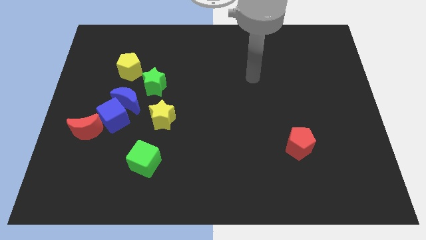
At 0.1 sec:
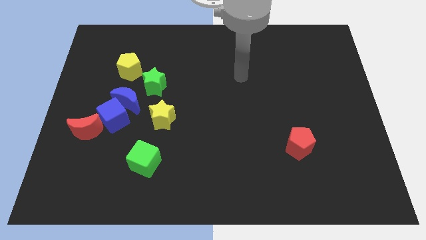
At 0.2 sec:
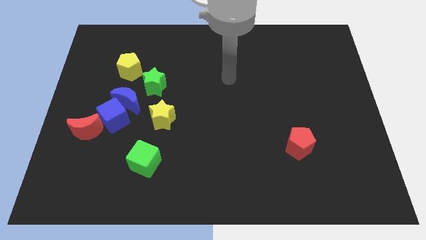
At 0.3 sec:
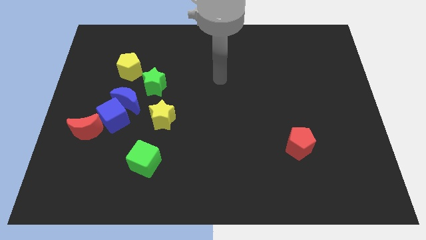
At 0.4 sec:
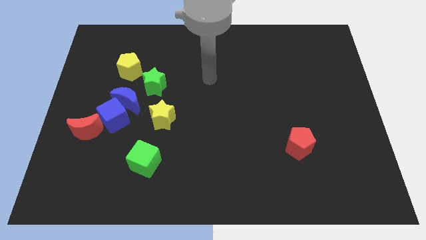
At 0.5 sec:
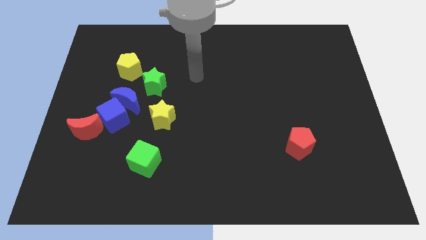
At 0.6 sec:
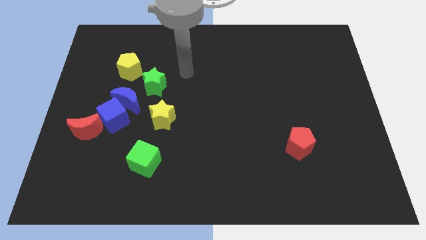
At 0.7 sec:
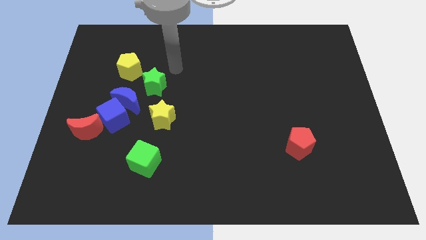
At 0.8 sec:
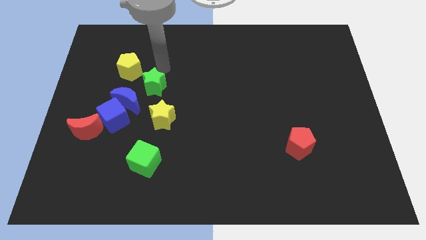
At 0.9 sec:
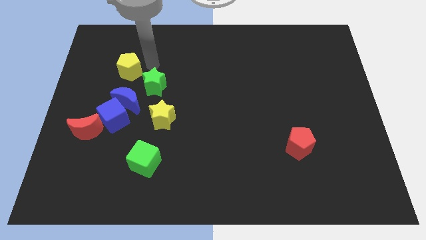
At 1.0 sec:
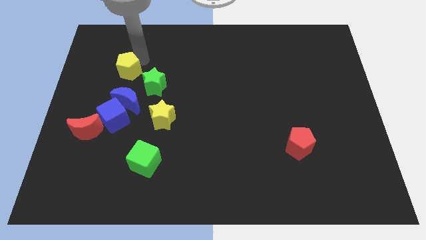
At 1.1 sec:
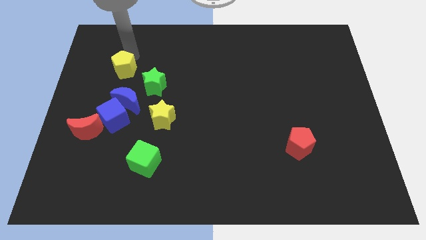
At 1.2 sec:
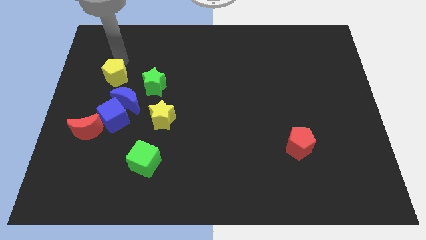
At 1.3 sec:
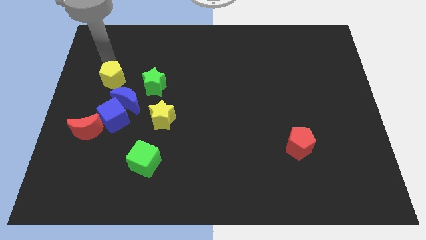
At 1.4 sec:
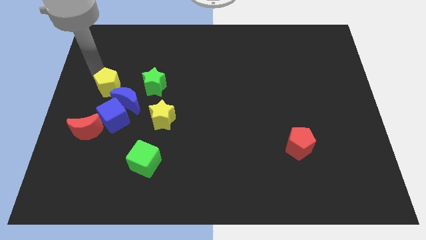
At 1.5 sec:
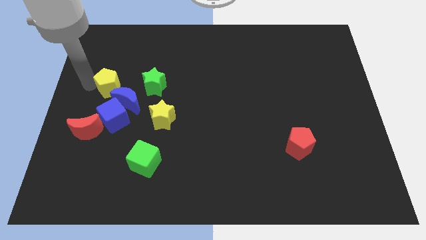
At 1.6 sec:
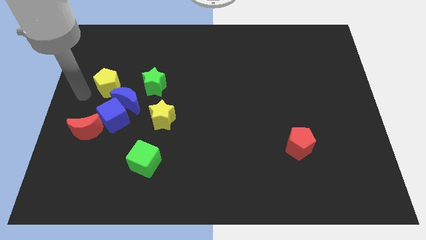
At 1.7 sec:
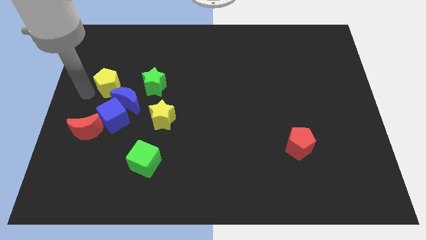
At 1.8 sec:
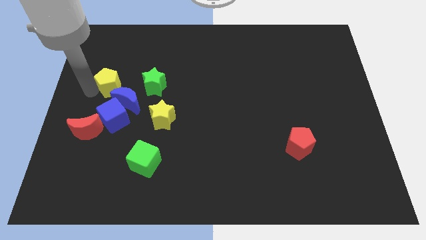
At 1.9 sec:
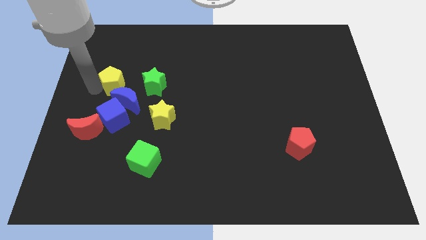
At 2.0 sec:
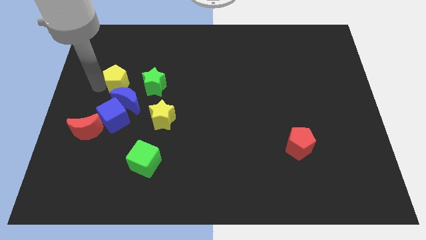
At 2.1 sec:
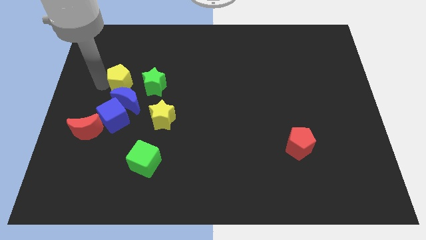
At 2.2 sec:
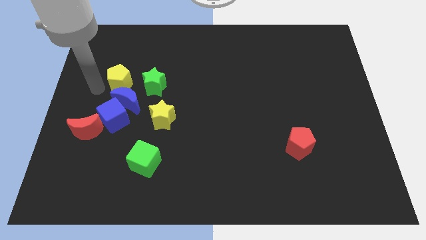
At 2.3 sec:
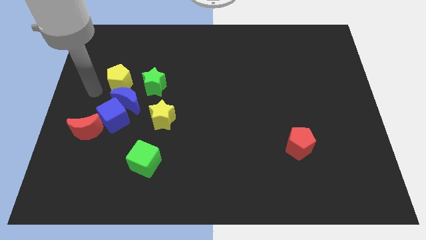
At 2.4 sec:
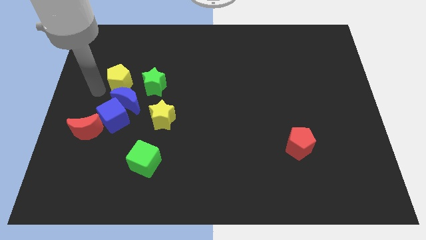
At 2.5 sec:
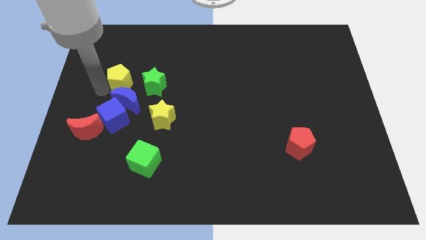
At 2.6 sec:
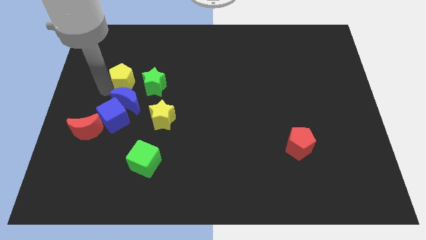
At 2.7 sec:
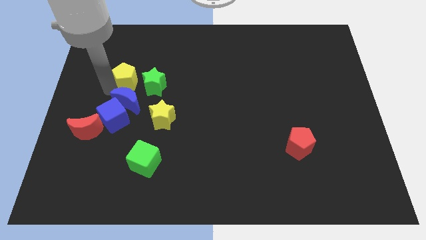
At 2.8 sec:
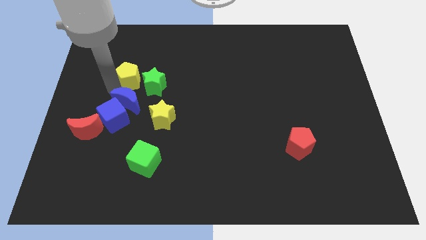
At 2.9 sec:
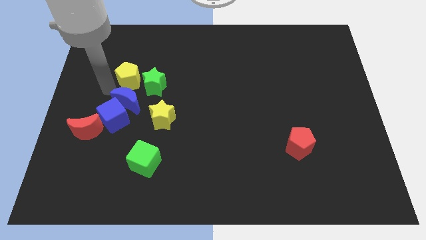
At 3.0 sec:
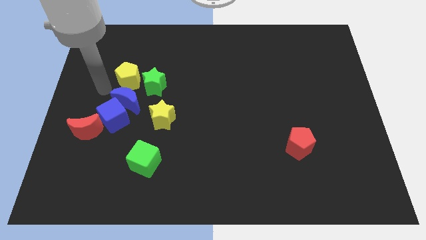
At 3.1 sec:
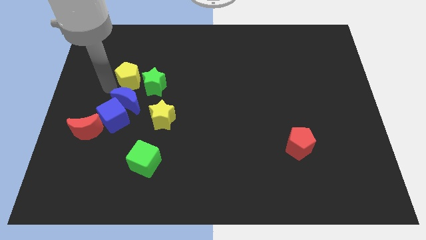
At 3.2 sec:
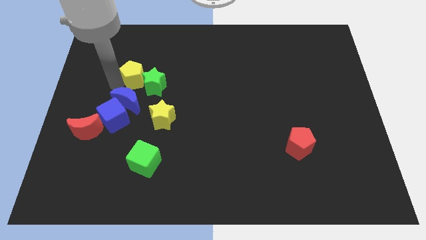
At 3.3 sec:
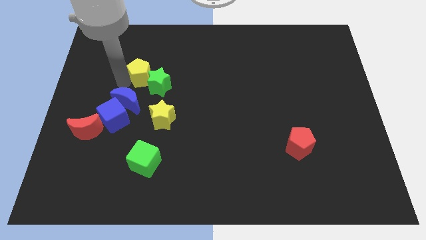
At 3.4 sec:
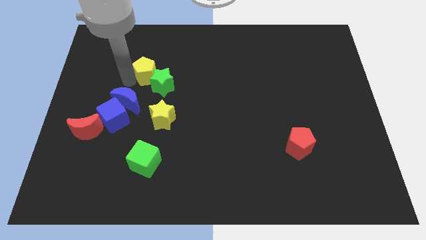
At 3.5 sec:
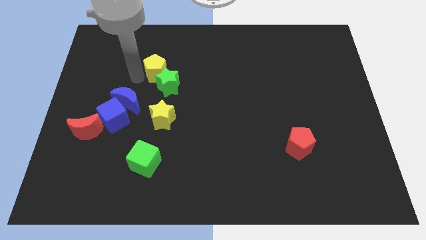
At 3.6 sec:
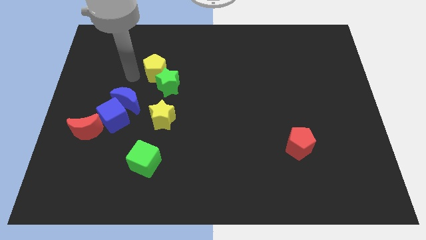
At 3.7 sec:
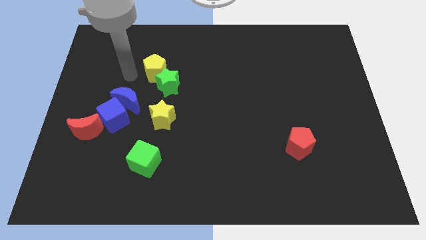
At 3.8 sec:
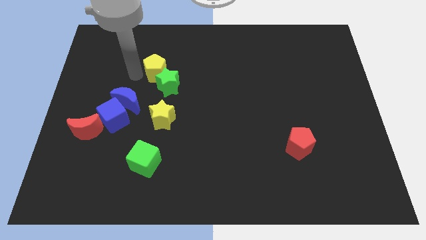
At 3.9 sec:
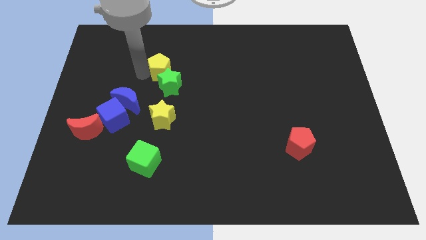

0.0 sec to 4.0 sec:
slide the yellow pentagon right somewhat

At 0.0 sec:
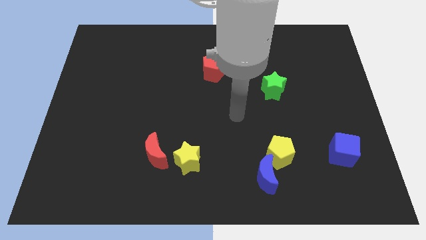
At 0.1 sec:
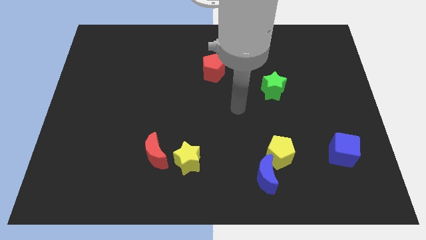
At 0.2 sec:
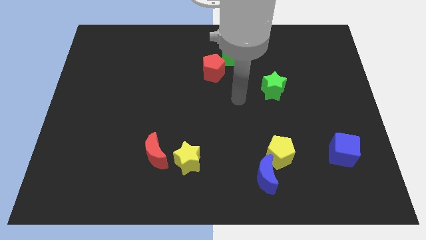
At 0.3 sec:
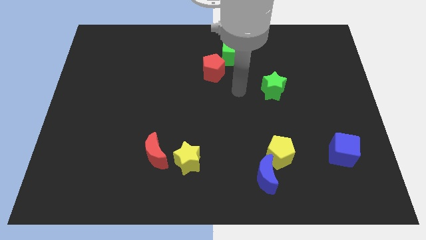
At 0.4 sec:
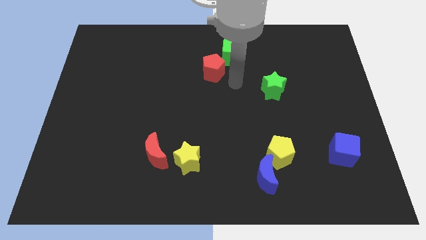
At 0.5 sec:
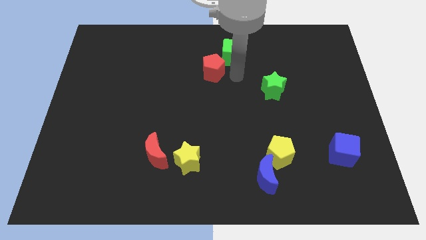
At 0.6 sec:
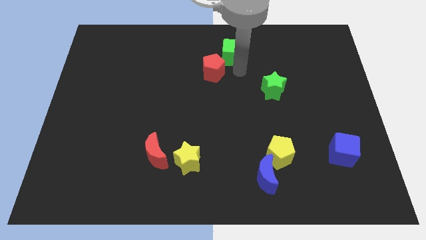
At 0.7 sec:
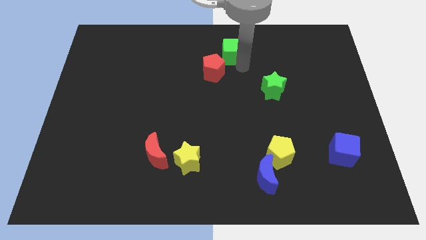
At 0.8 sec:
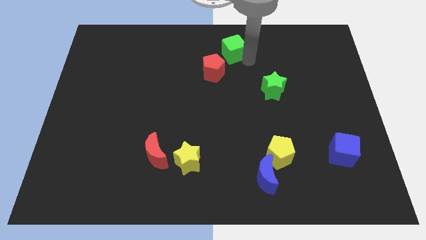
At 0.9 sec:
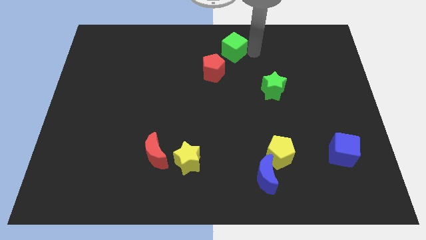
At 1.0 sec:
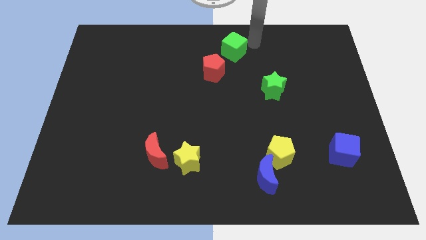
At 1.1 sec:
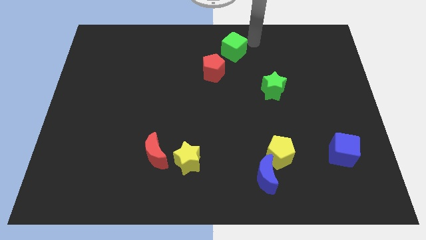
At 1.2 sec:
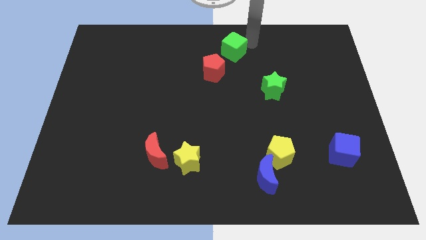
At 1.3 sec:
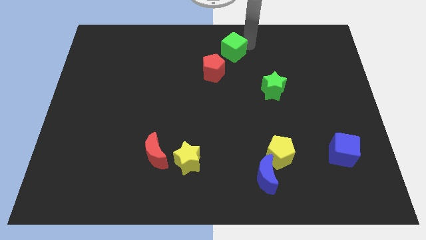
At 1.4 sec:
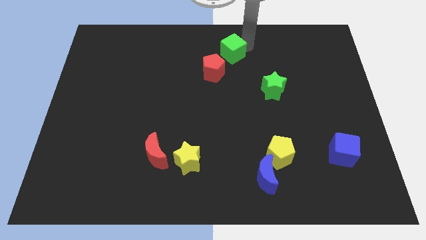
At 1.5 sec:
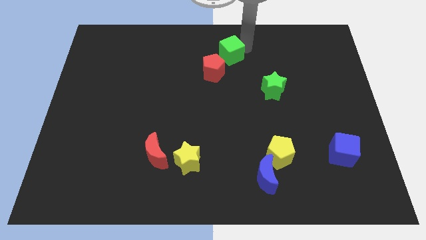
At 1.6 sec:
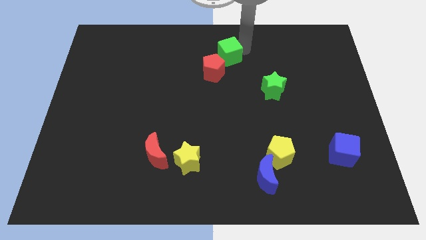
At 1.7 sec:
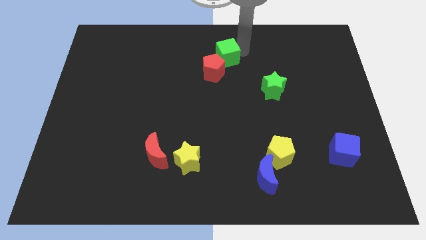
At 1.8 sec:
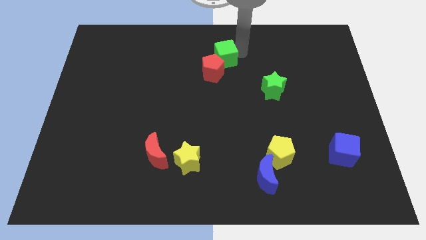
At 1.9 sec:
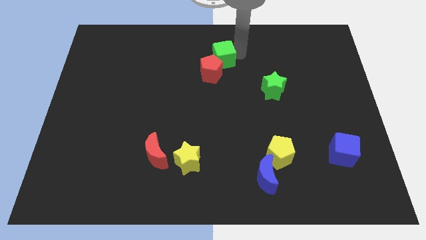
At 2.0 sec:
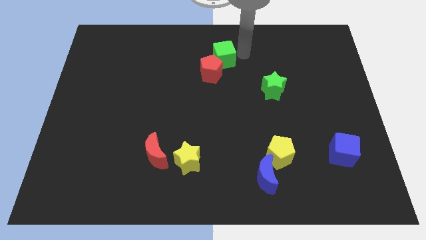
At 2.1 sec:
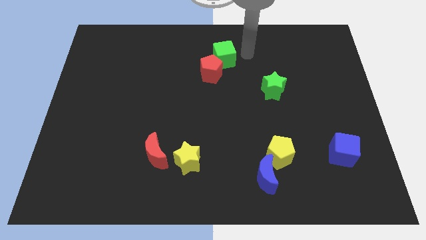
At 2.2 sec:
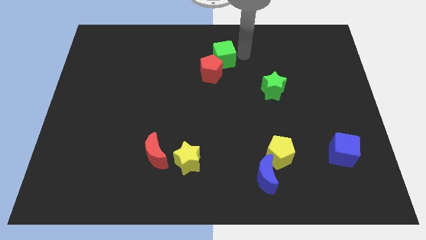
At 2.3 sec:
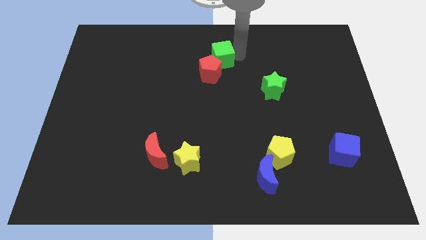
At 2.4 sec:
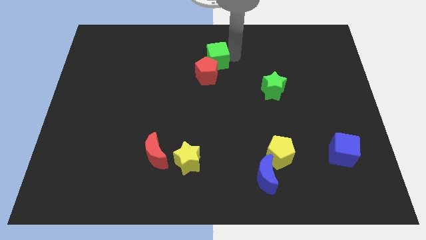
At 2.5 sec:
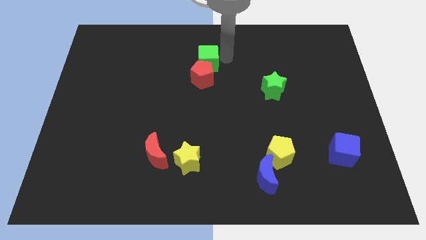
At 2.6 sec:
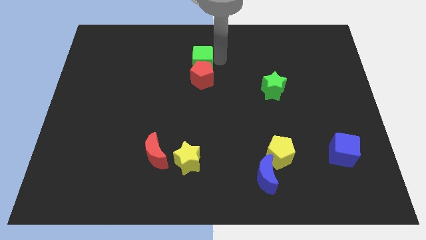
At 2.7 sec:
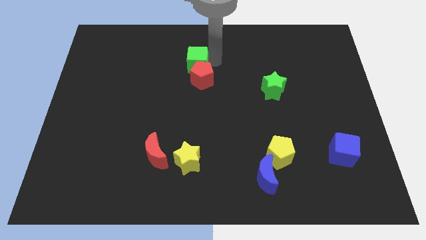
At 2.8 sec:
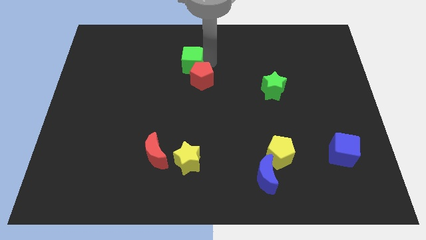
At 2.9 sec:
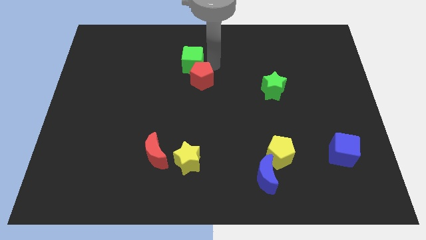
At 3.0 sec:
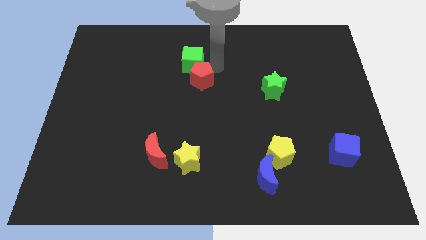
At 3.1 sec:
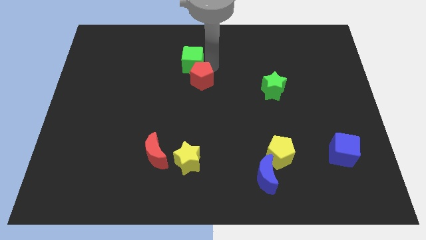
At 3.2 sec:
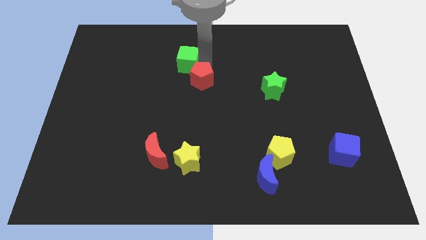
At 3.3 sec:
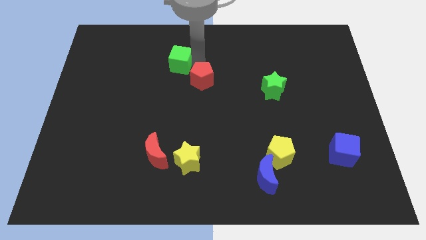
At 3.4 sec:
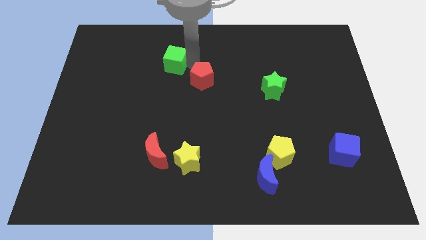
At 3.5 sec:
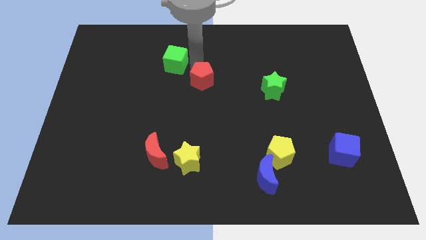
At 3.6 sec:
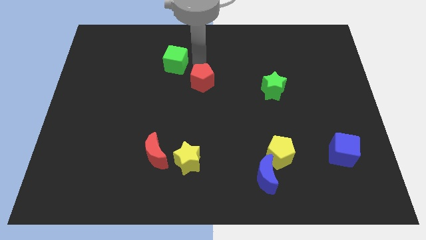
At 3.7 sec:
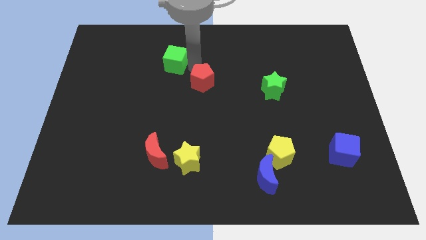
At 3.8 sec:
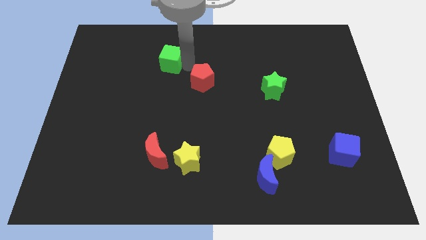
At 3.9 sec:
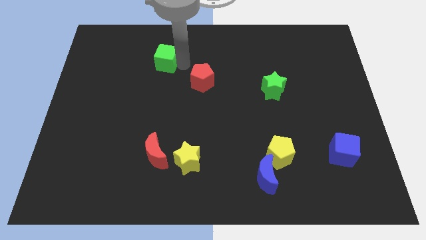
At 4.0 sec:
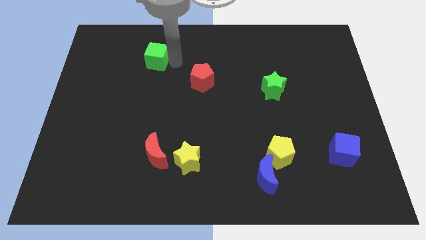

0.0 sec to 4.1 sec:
push the green cube left
